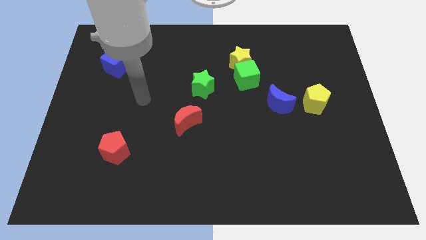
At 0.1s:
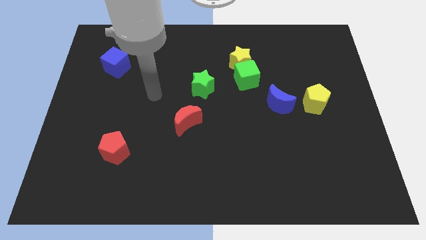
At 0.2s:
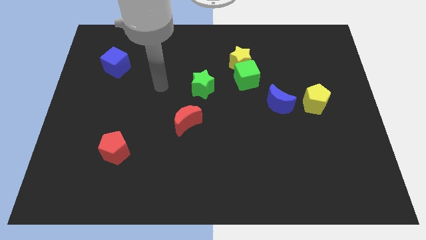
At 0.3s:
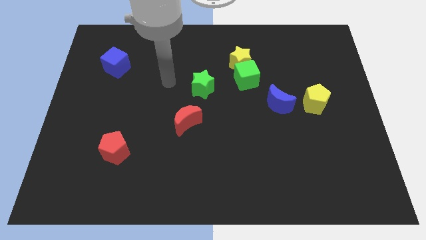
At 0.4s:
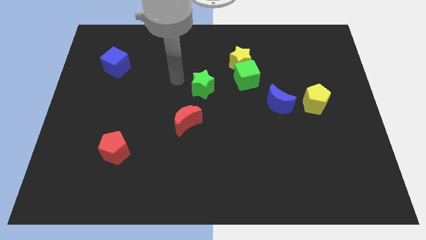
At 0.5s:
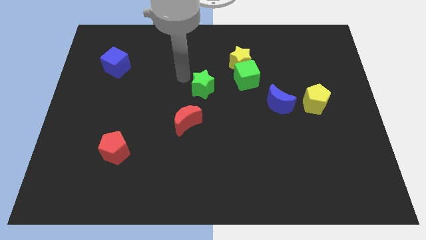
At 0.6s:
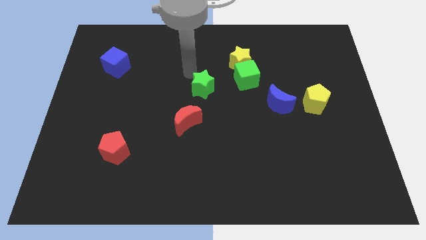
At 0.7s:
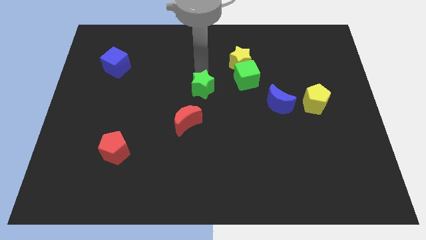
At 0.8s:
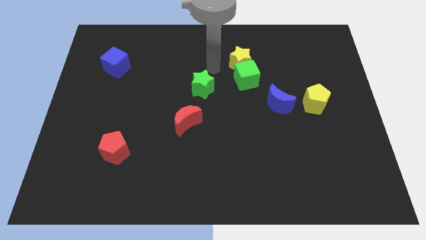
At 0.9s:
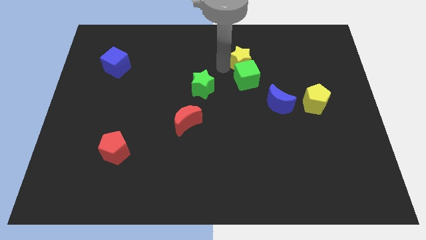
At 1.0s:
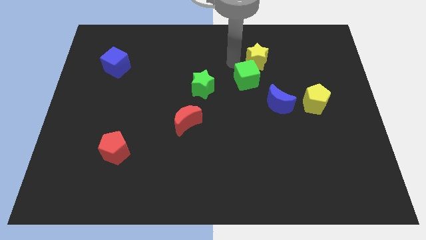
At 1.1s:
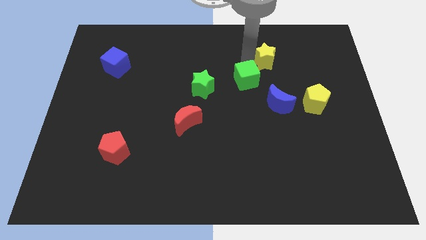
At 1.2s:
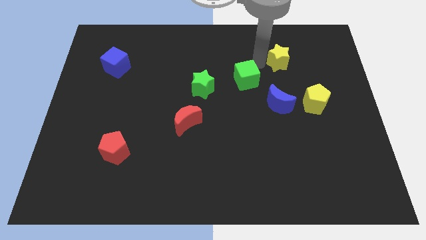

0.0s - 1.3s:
separate the green cube from the yellow star

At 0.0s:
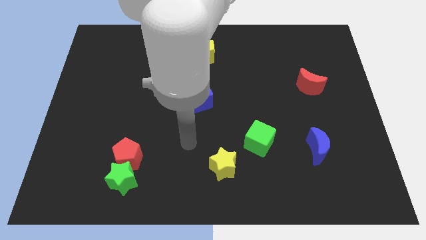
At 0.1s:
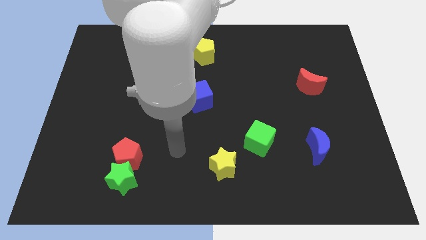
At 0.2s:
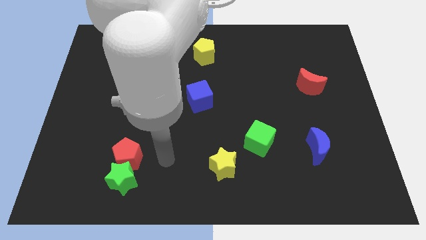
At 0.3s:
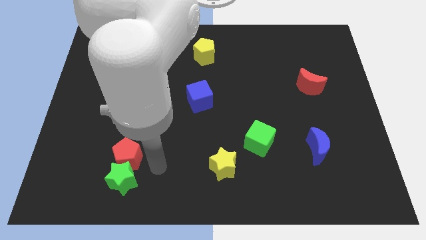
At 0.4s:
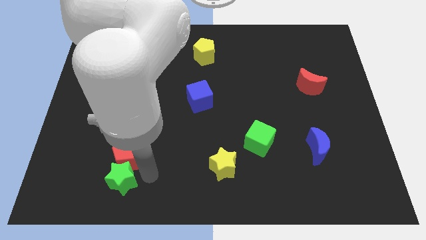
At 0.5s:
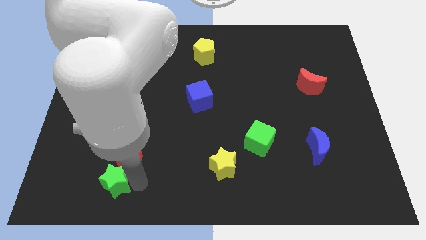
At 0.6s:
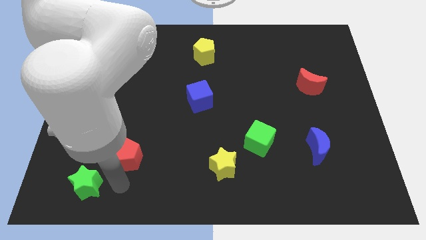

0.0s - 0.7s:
move the red pentagon away from the green star

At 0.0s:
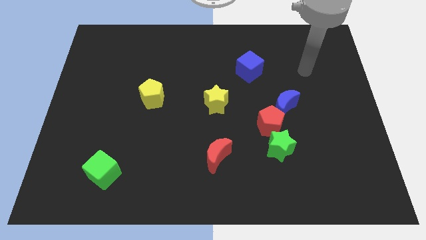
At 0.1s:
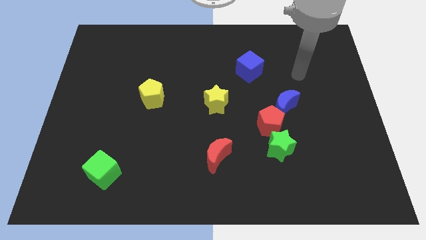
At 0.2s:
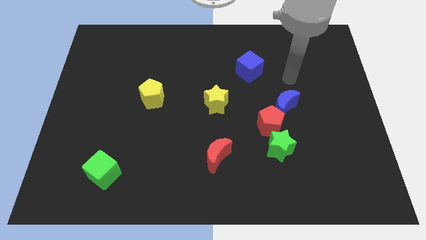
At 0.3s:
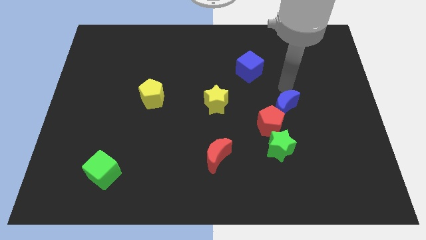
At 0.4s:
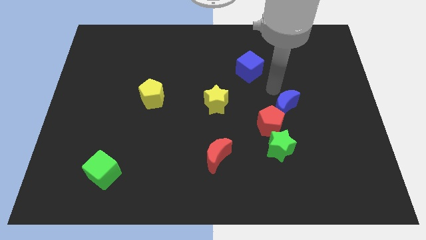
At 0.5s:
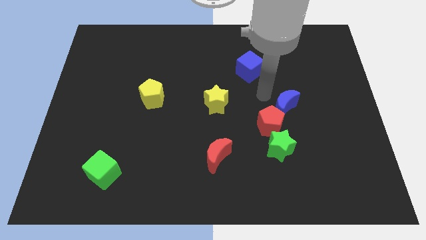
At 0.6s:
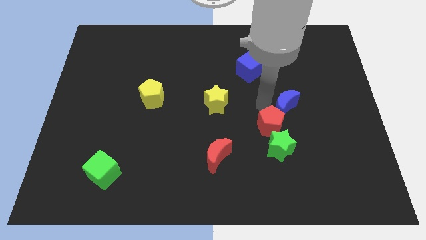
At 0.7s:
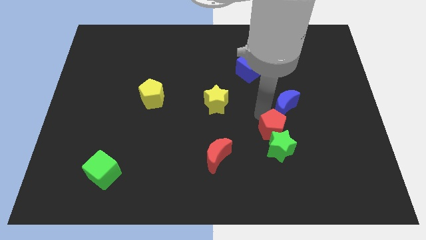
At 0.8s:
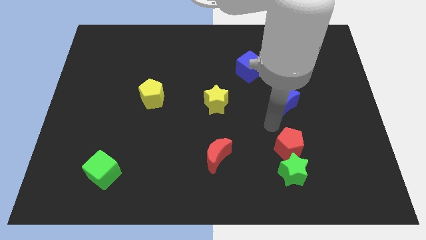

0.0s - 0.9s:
pull the blue moon apart from the red pentagon

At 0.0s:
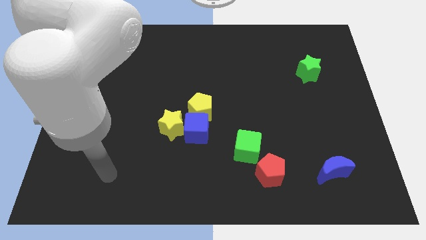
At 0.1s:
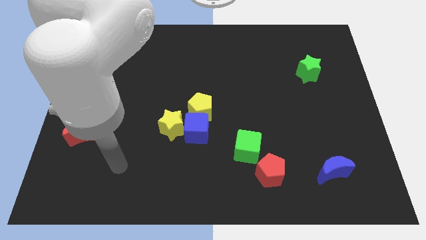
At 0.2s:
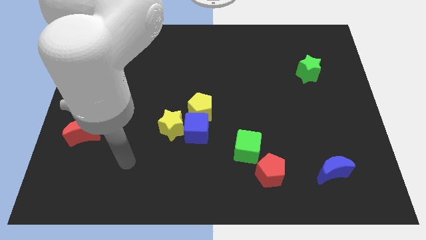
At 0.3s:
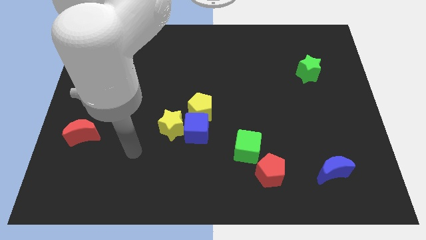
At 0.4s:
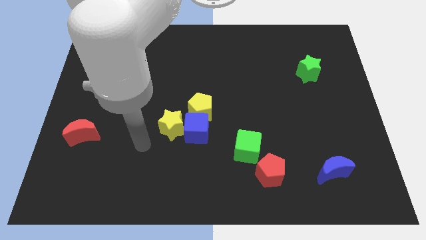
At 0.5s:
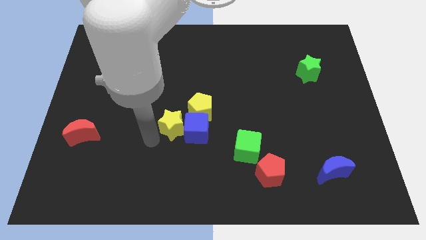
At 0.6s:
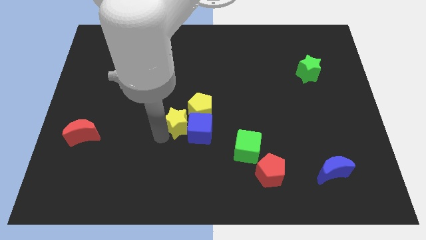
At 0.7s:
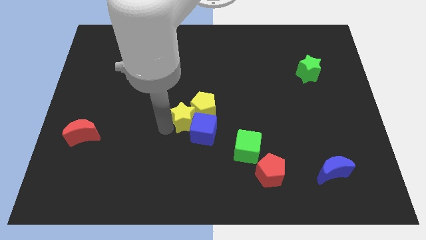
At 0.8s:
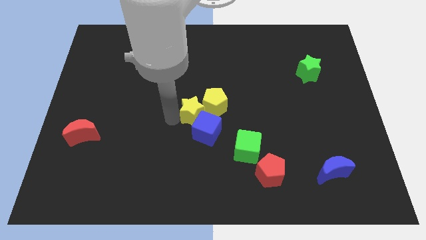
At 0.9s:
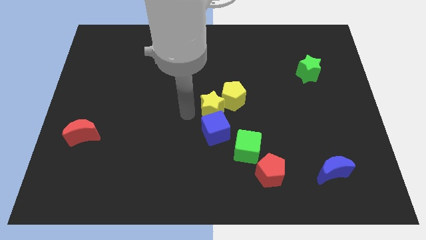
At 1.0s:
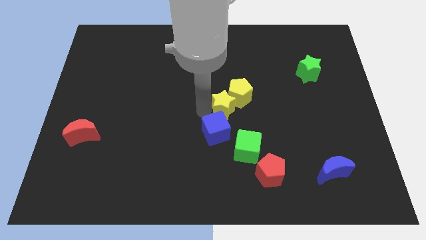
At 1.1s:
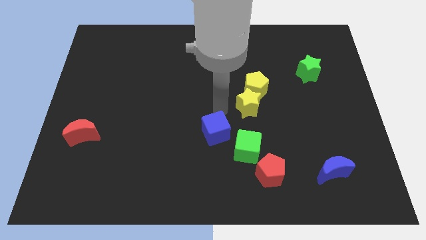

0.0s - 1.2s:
pull the blue cube apart from the yellow star and yellow pentagon

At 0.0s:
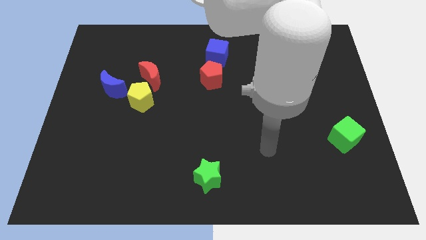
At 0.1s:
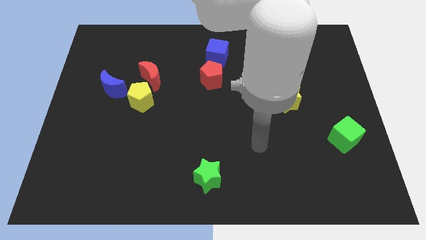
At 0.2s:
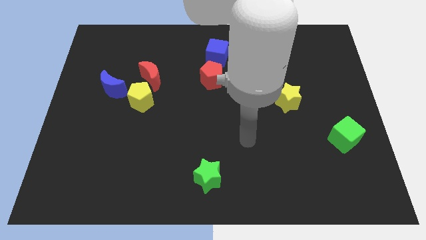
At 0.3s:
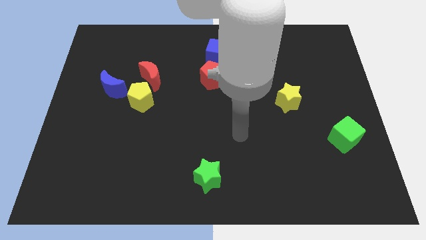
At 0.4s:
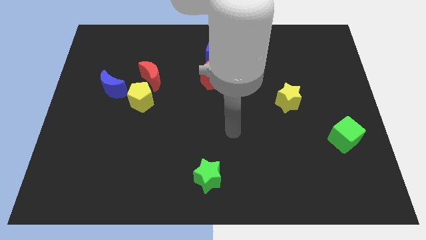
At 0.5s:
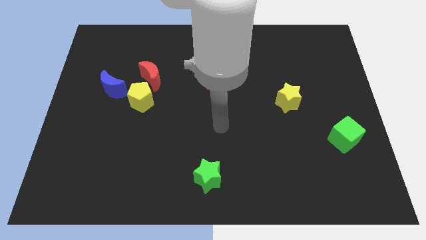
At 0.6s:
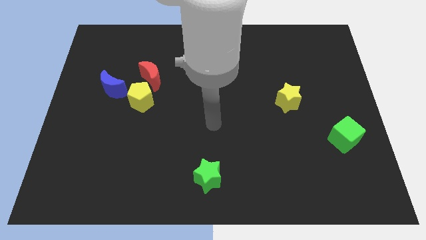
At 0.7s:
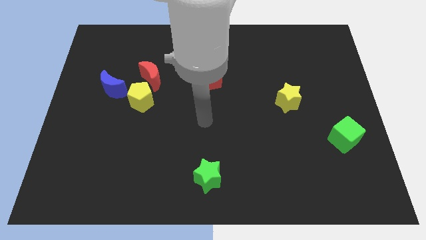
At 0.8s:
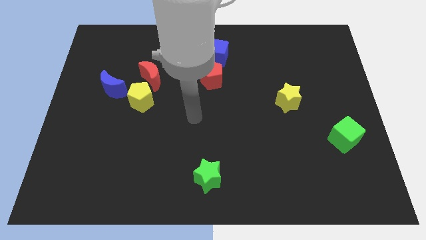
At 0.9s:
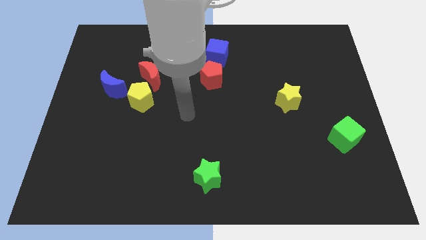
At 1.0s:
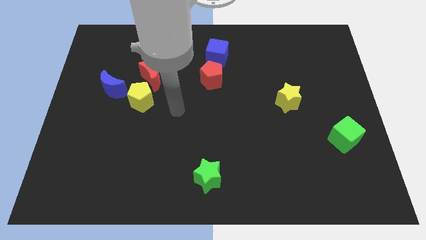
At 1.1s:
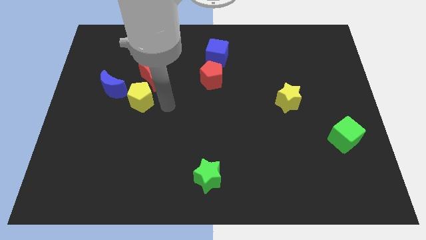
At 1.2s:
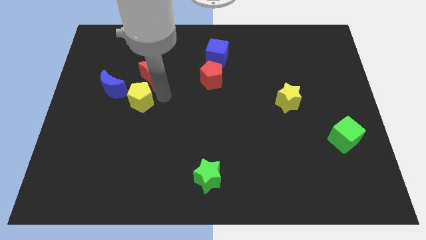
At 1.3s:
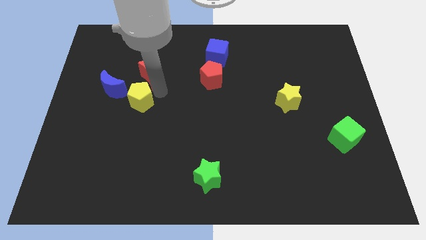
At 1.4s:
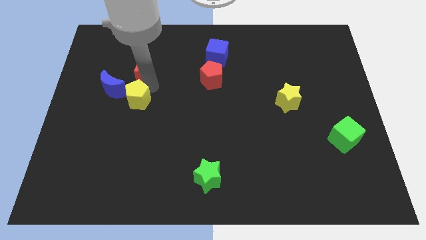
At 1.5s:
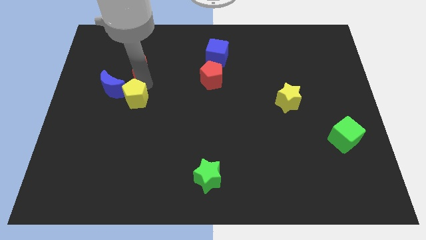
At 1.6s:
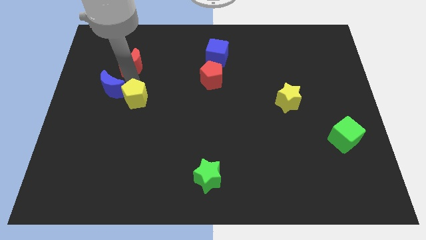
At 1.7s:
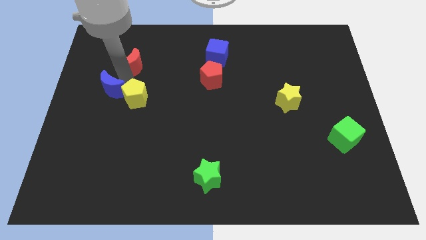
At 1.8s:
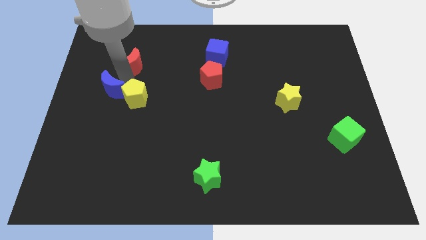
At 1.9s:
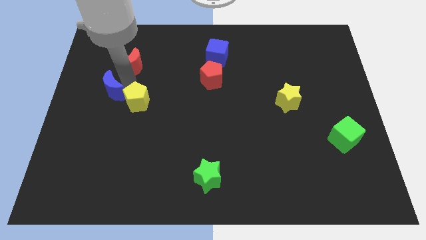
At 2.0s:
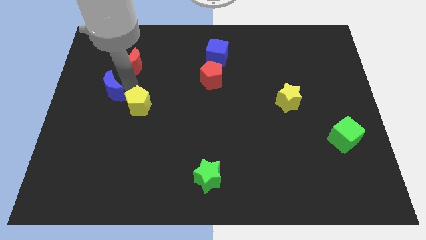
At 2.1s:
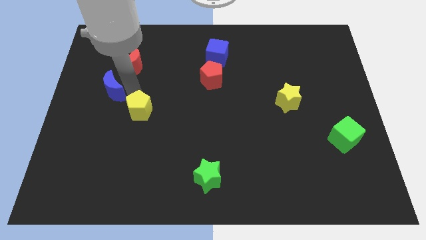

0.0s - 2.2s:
separate the yellow pentagon from the red moon and blue moon

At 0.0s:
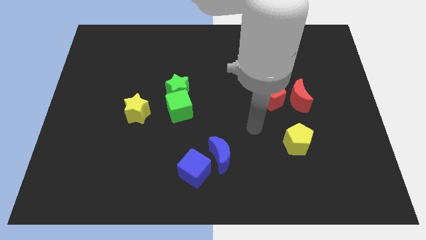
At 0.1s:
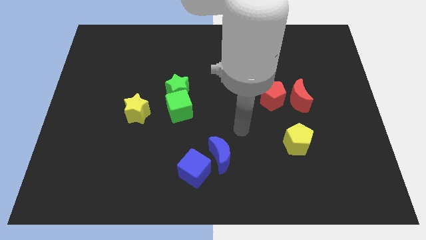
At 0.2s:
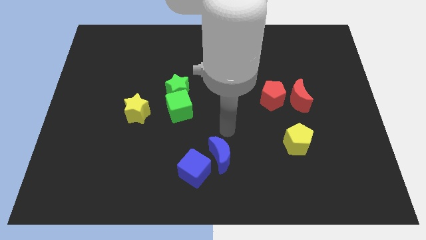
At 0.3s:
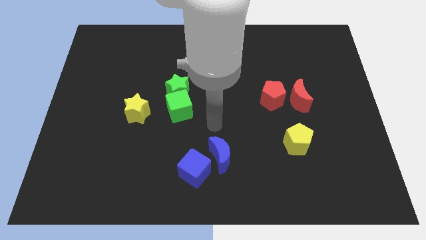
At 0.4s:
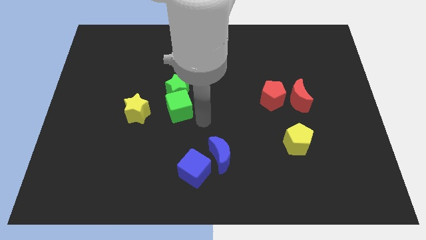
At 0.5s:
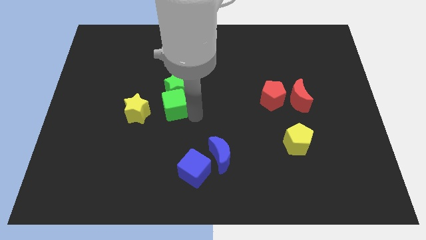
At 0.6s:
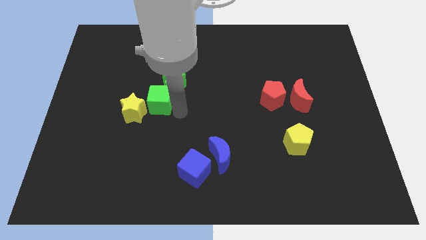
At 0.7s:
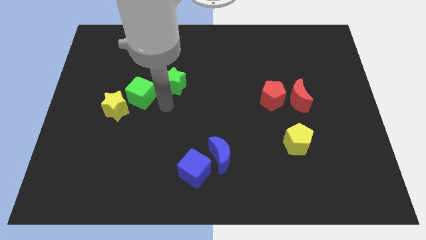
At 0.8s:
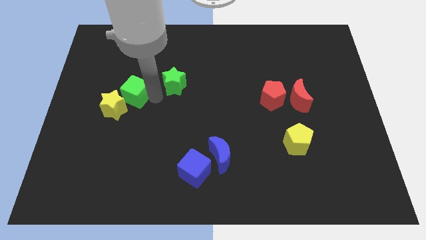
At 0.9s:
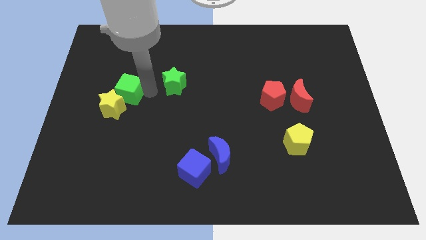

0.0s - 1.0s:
move the green star away from the green cube

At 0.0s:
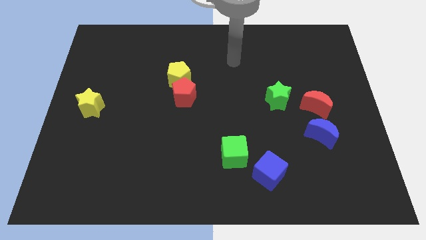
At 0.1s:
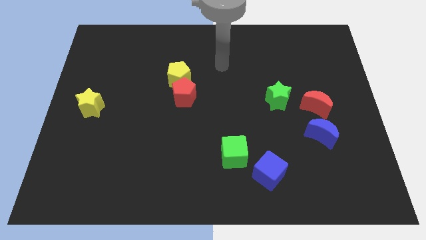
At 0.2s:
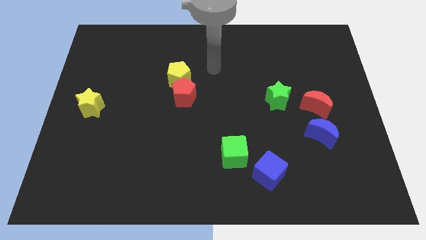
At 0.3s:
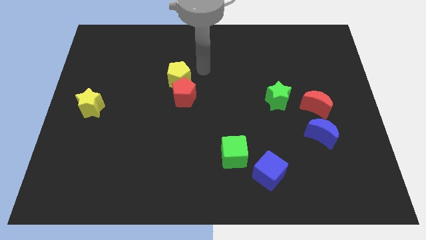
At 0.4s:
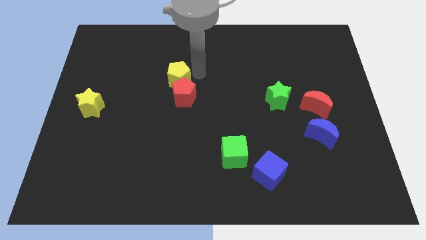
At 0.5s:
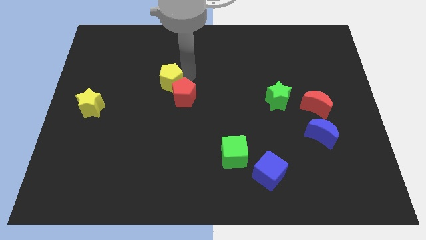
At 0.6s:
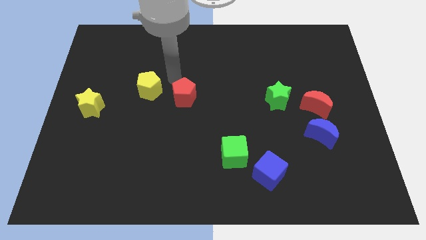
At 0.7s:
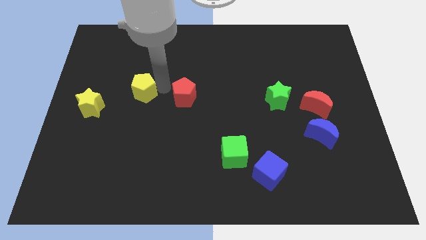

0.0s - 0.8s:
move the red pentagon away from the yellow pentagon

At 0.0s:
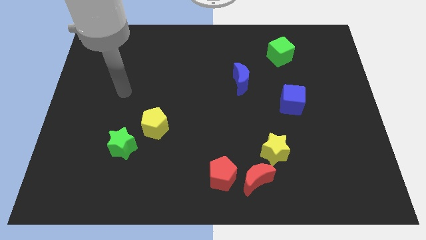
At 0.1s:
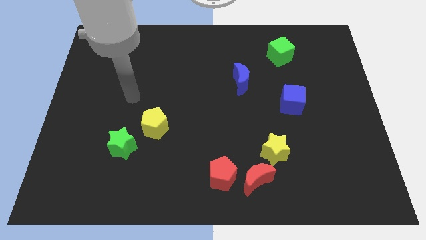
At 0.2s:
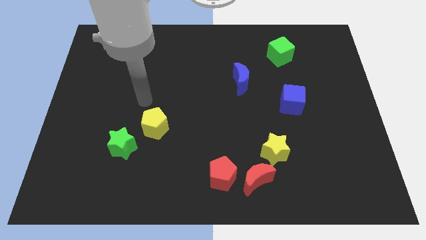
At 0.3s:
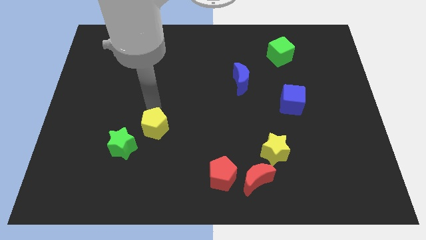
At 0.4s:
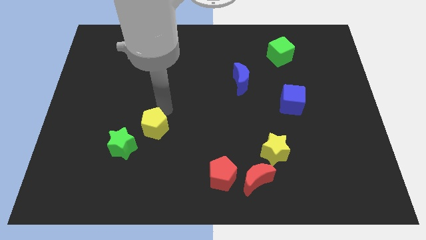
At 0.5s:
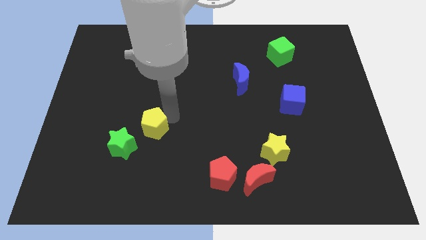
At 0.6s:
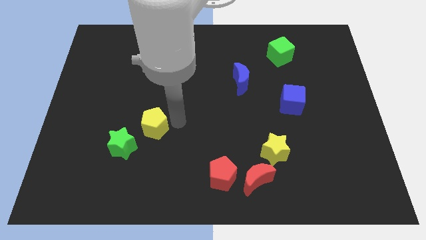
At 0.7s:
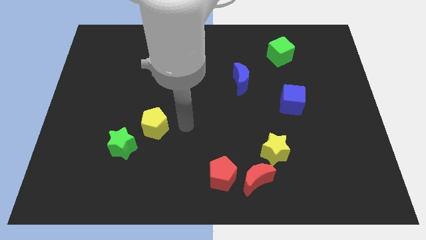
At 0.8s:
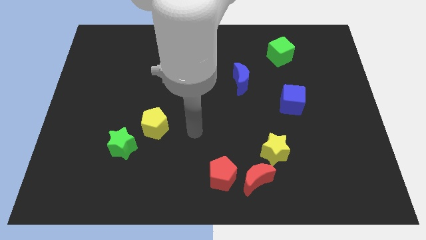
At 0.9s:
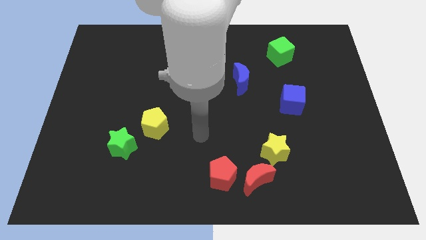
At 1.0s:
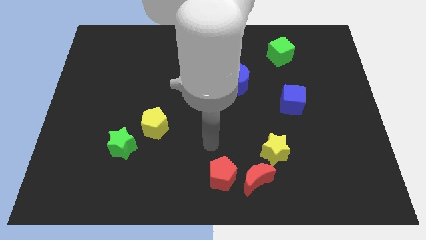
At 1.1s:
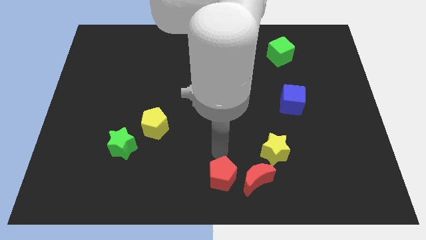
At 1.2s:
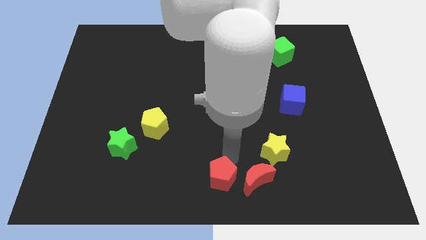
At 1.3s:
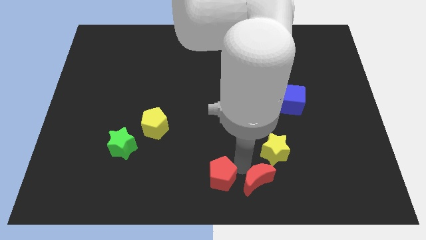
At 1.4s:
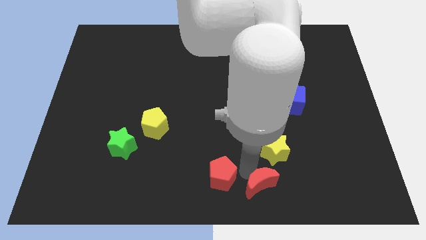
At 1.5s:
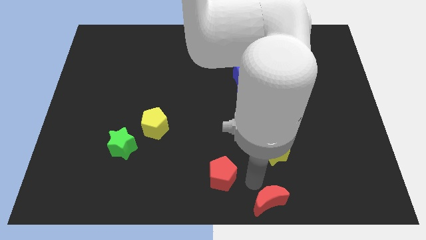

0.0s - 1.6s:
move the red pentagon away from the red moon
